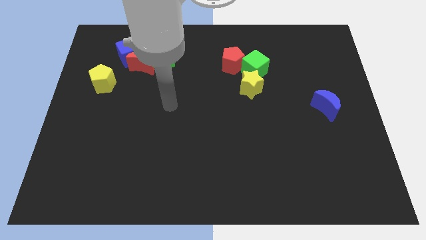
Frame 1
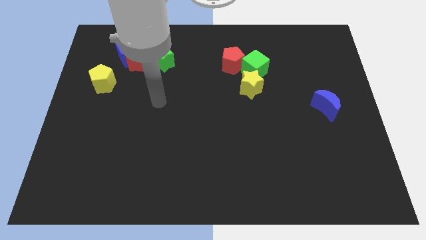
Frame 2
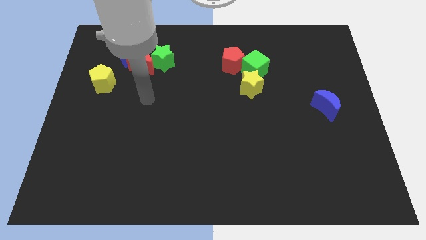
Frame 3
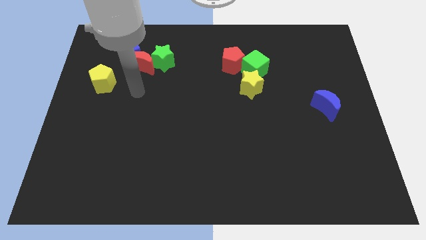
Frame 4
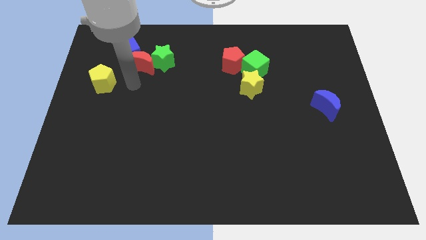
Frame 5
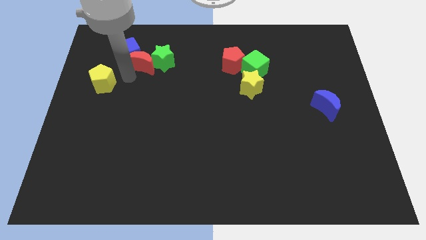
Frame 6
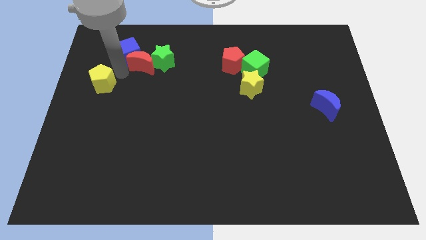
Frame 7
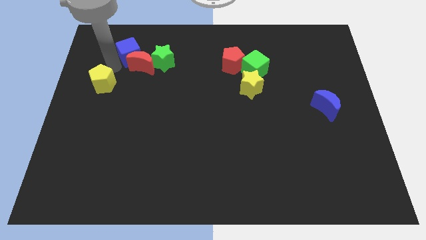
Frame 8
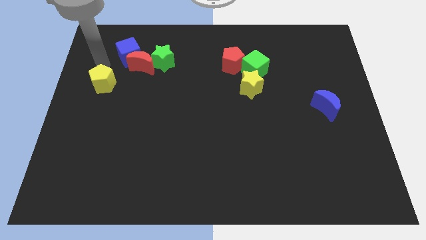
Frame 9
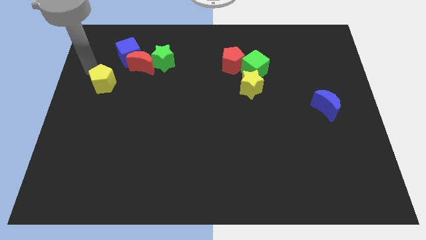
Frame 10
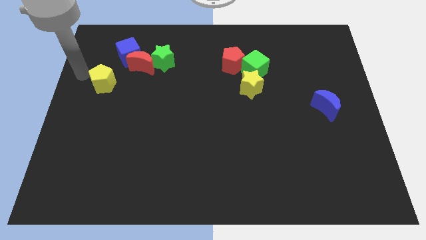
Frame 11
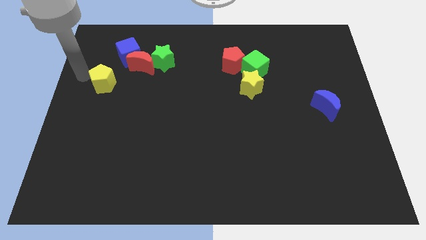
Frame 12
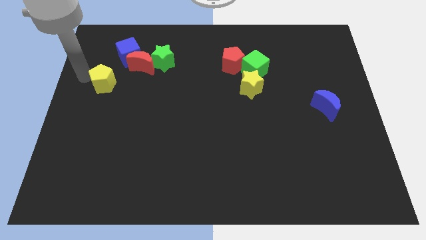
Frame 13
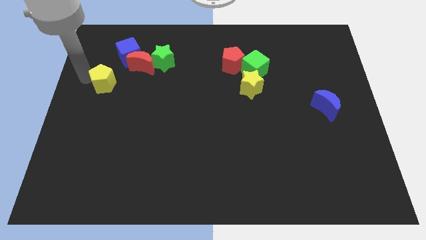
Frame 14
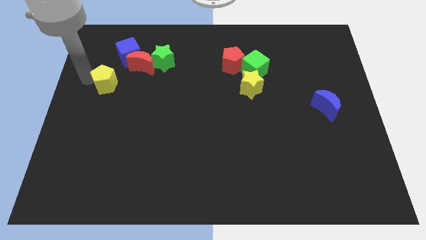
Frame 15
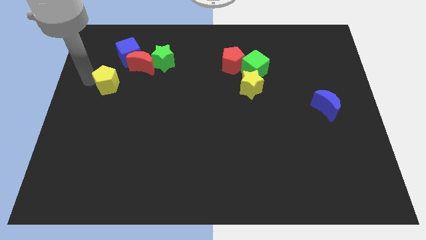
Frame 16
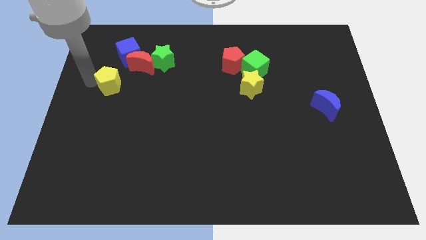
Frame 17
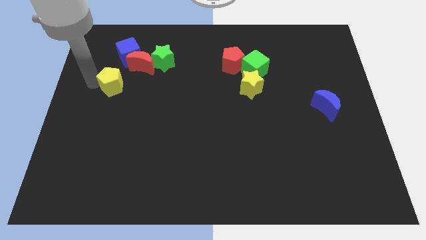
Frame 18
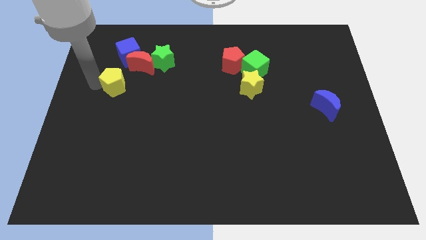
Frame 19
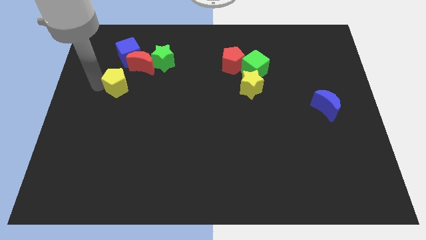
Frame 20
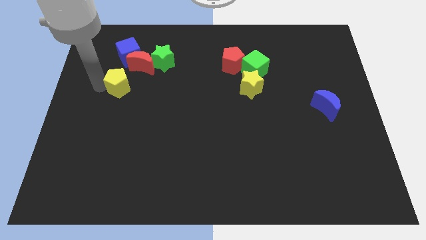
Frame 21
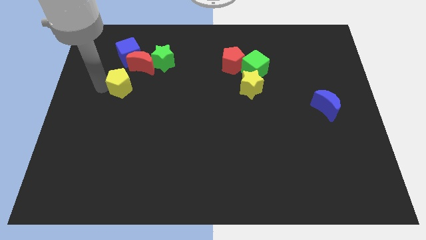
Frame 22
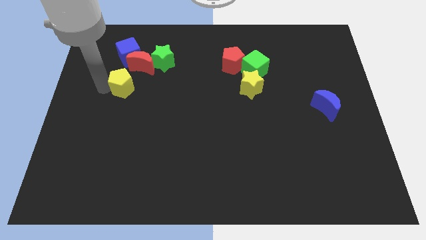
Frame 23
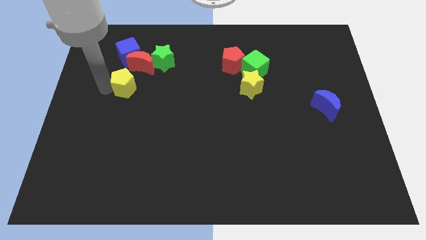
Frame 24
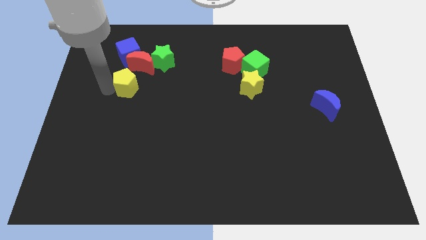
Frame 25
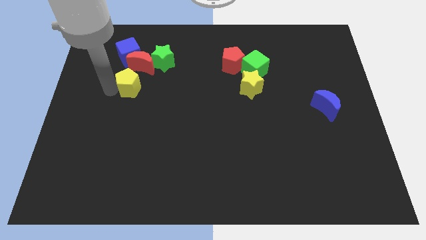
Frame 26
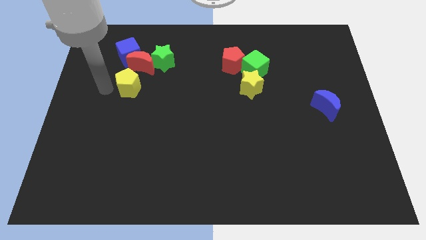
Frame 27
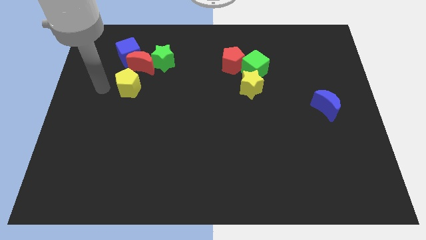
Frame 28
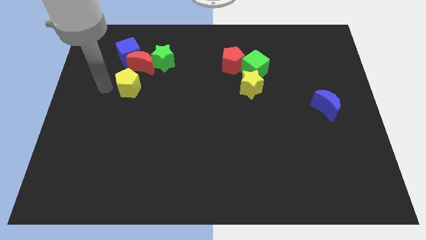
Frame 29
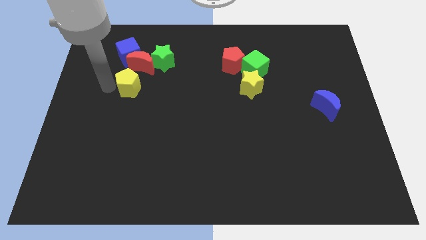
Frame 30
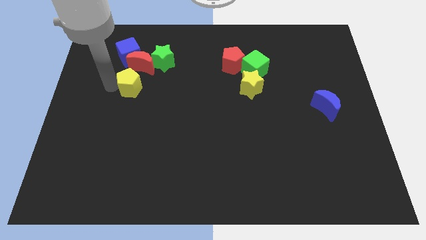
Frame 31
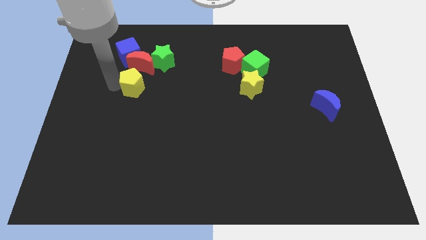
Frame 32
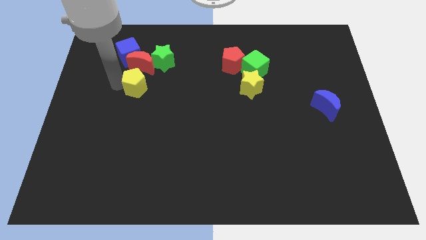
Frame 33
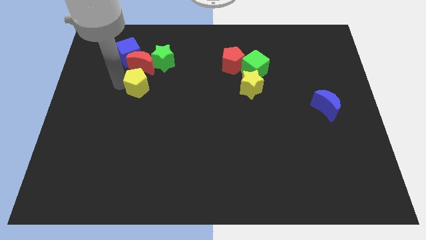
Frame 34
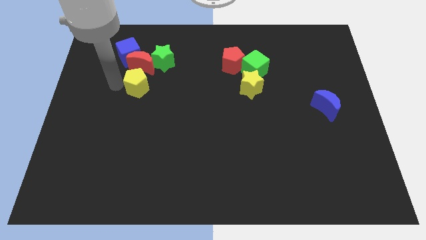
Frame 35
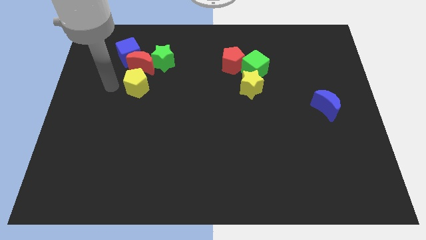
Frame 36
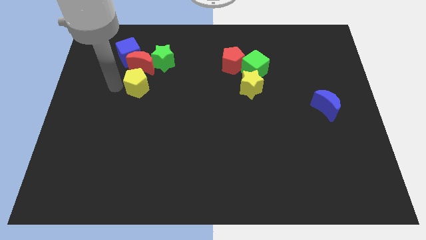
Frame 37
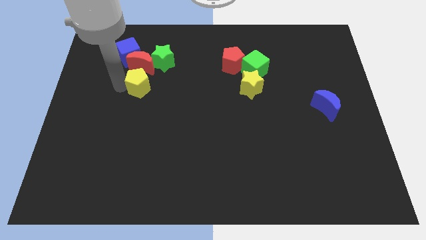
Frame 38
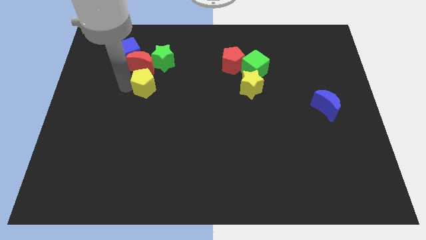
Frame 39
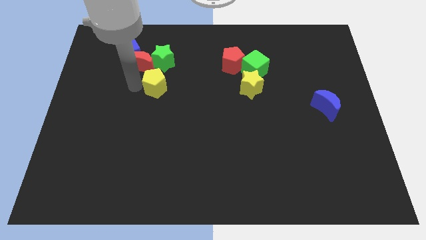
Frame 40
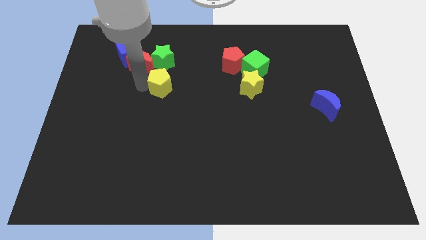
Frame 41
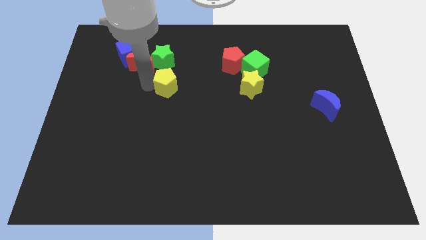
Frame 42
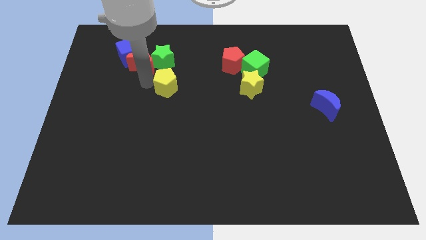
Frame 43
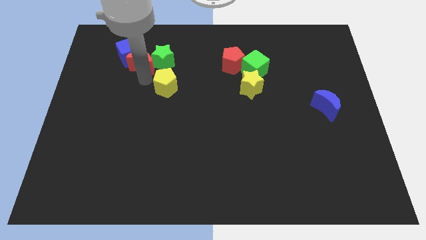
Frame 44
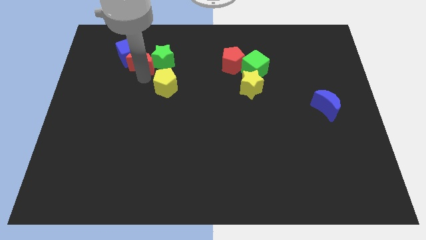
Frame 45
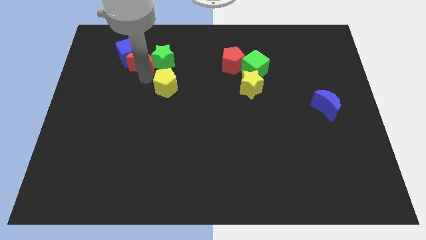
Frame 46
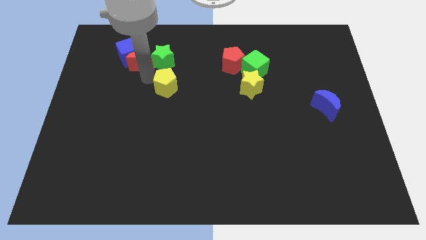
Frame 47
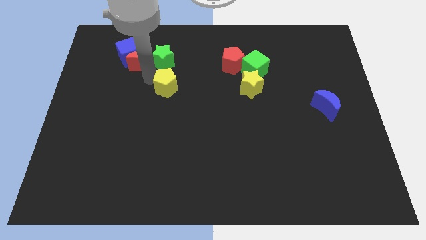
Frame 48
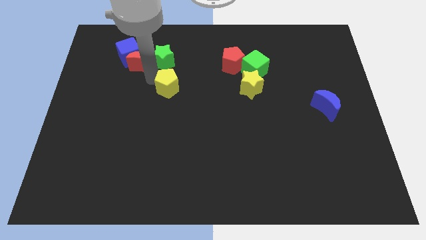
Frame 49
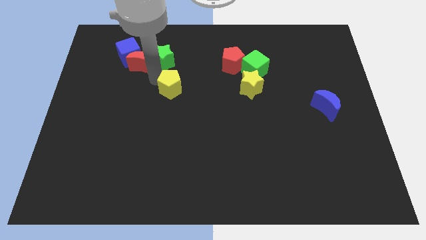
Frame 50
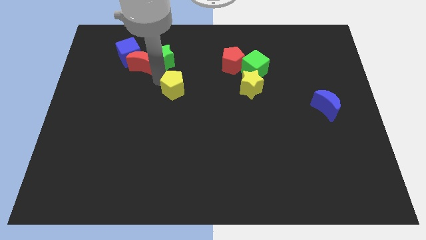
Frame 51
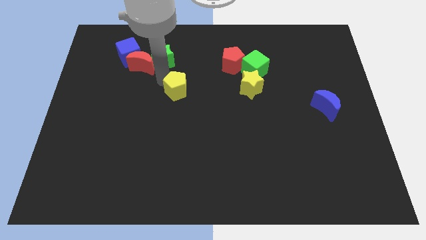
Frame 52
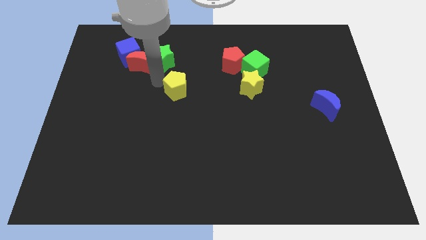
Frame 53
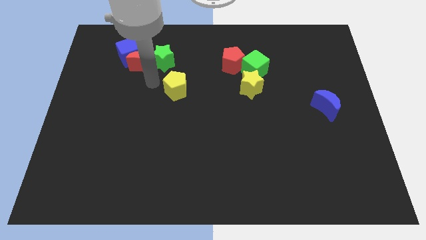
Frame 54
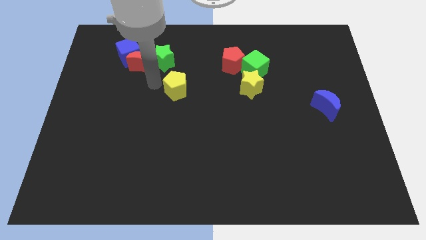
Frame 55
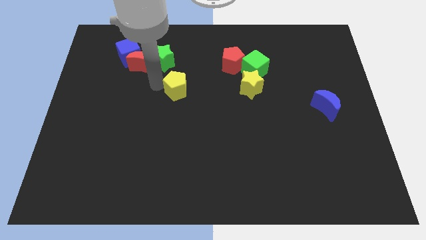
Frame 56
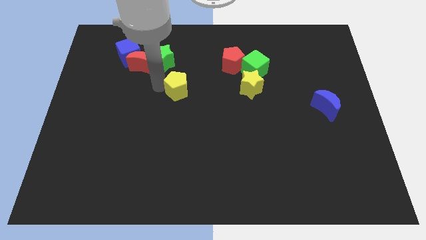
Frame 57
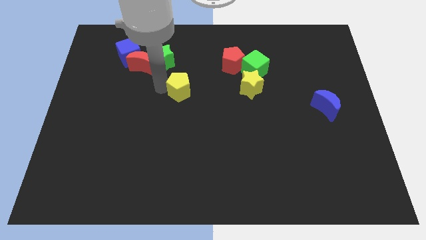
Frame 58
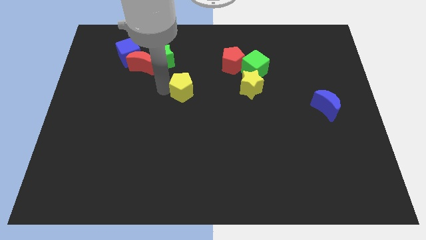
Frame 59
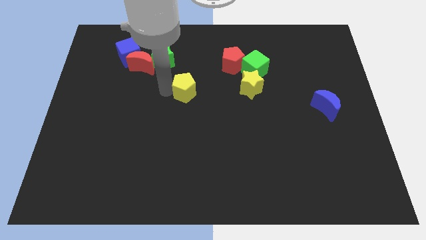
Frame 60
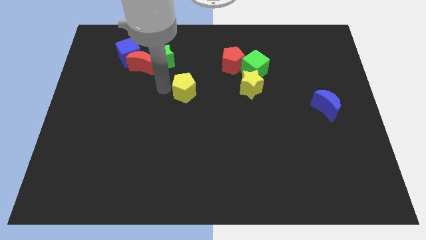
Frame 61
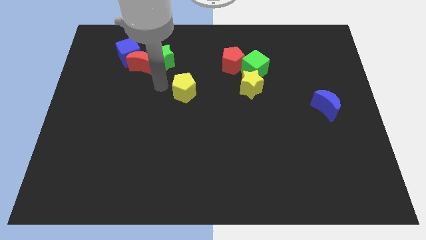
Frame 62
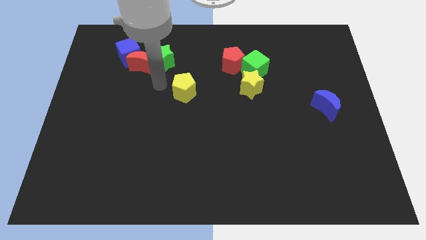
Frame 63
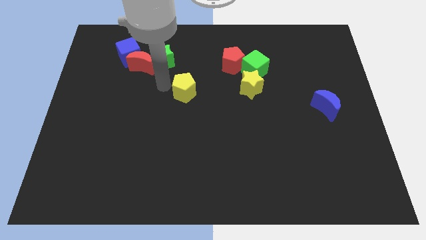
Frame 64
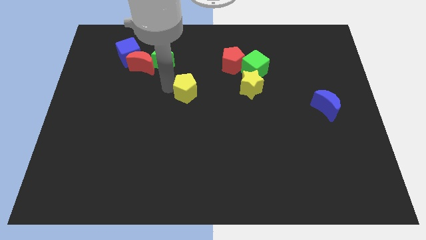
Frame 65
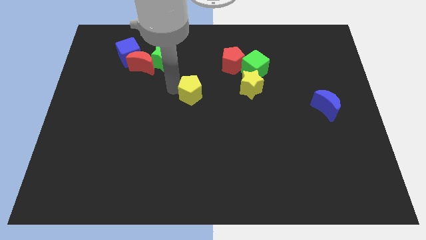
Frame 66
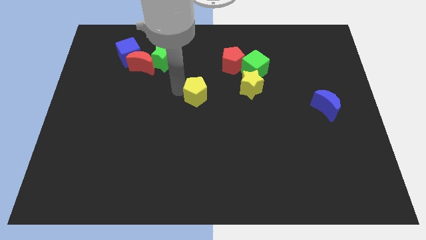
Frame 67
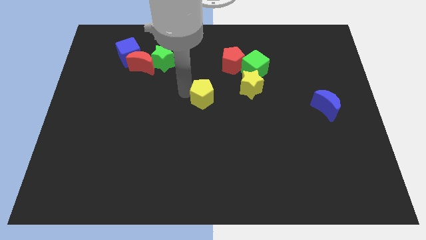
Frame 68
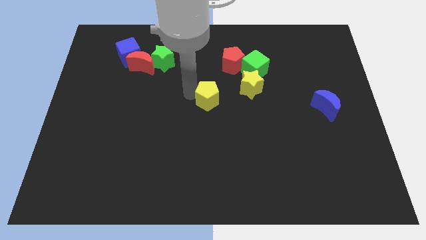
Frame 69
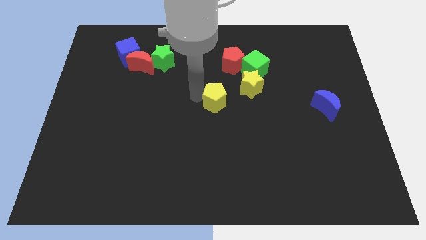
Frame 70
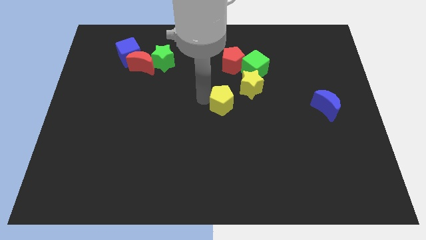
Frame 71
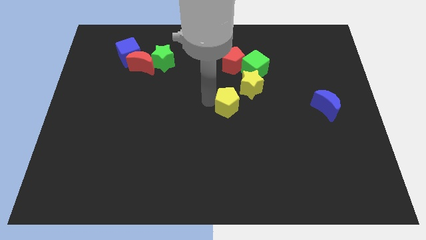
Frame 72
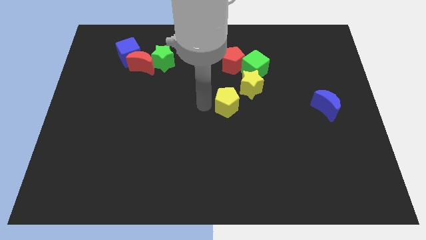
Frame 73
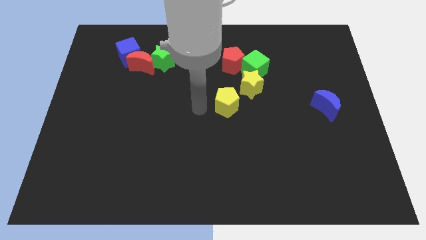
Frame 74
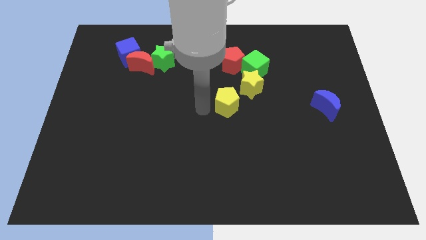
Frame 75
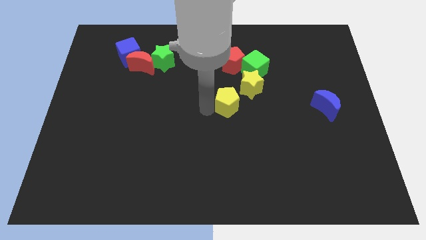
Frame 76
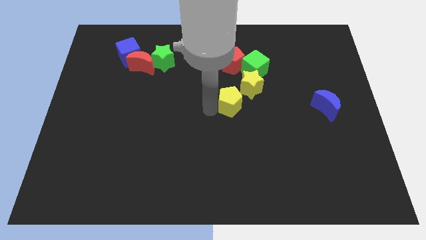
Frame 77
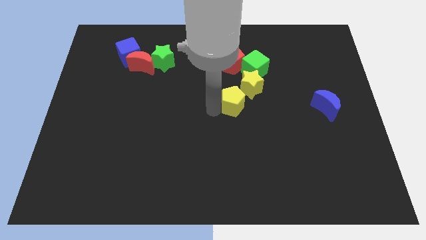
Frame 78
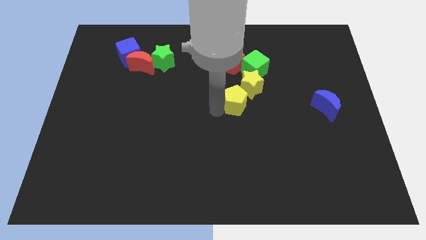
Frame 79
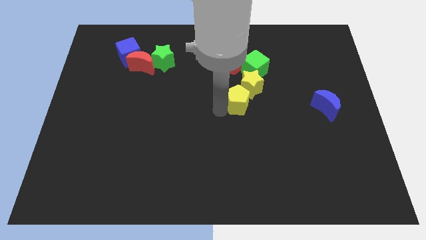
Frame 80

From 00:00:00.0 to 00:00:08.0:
put the yellow pentagon below the green cube
